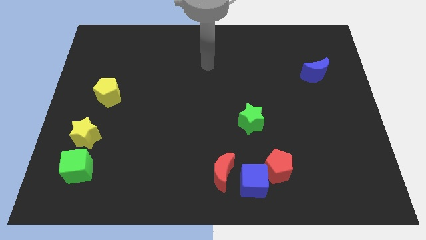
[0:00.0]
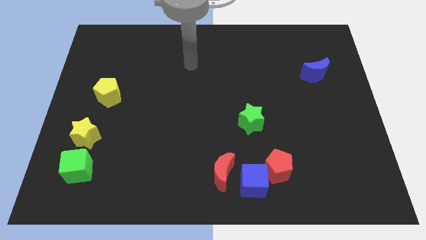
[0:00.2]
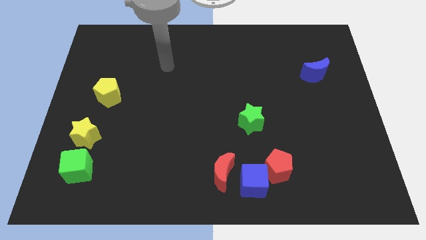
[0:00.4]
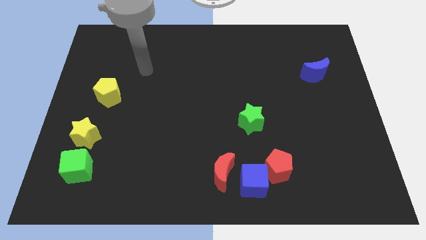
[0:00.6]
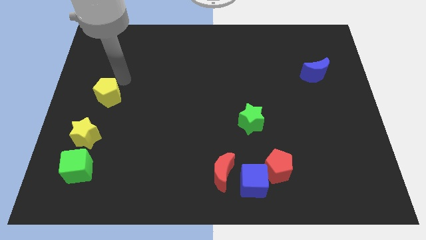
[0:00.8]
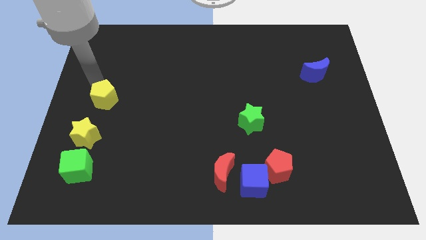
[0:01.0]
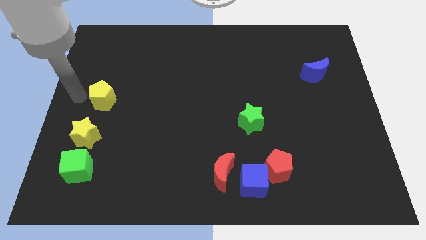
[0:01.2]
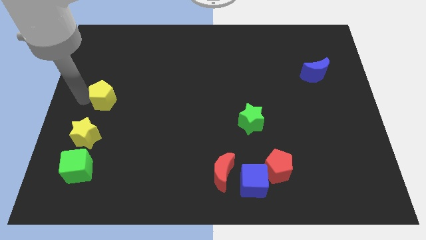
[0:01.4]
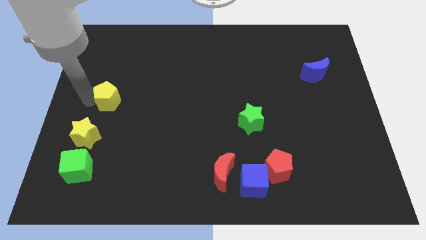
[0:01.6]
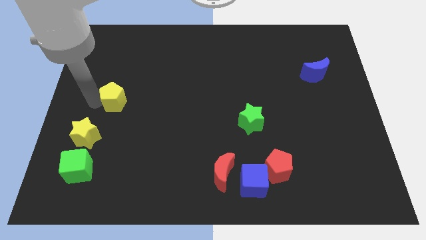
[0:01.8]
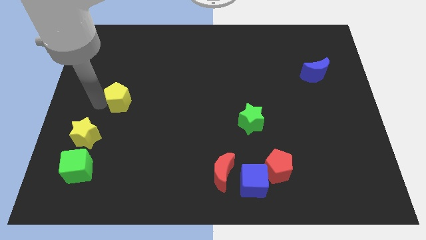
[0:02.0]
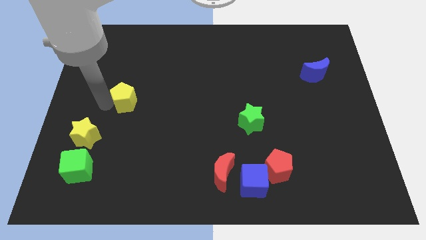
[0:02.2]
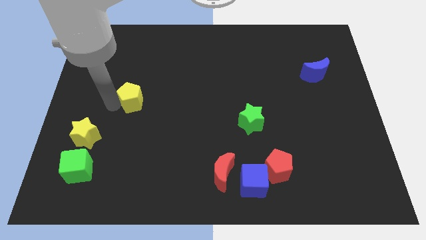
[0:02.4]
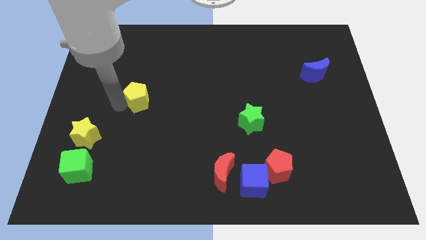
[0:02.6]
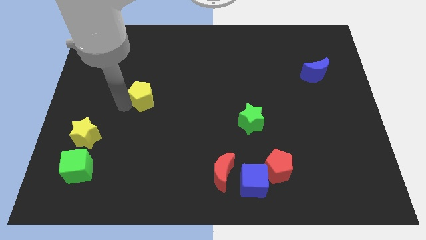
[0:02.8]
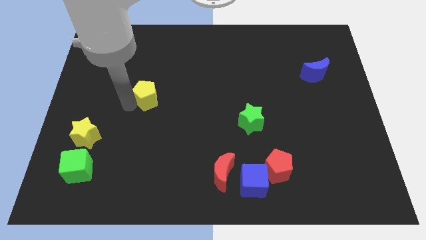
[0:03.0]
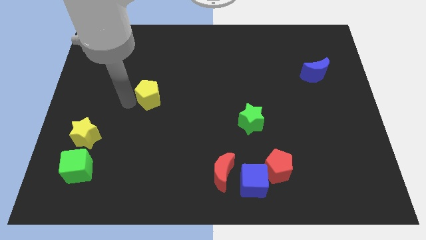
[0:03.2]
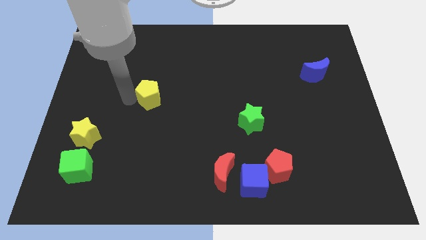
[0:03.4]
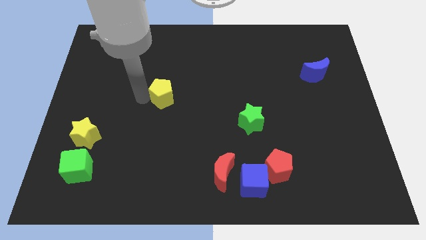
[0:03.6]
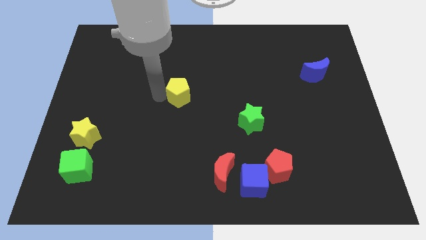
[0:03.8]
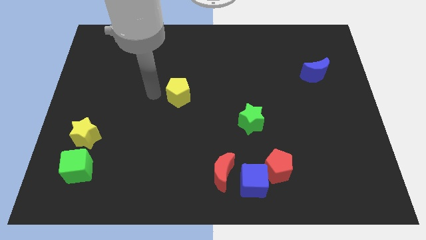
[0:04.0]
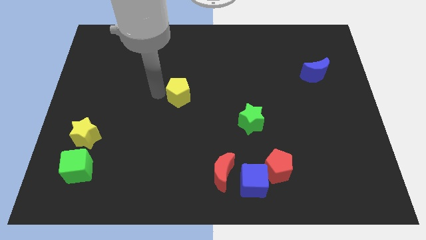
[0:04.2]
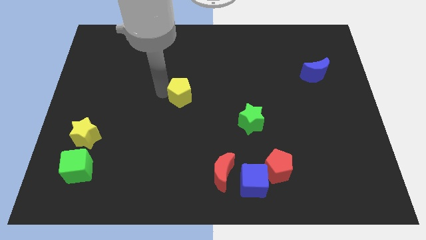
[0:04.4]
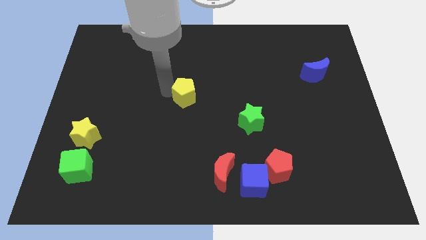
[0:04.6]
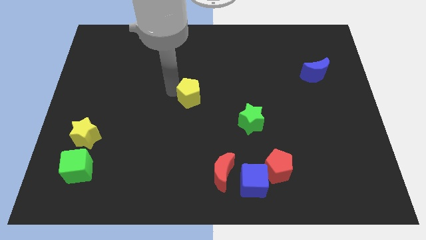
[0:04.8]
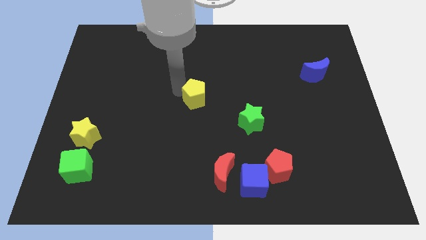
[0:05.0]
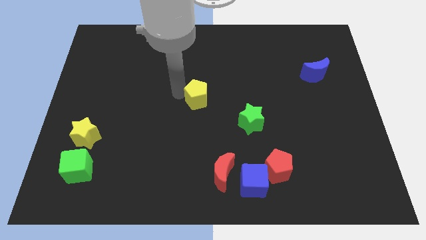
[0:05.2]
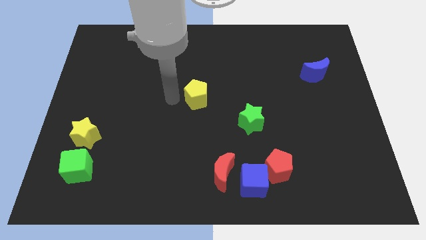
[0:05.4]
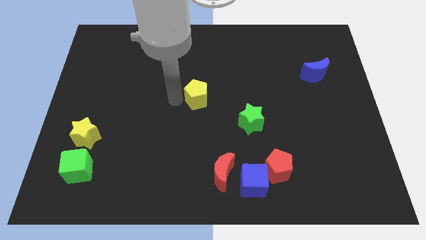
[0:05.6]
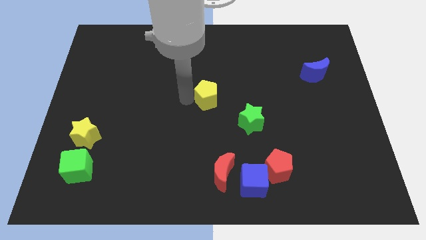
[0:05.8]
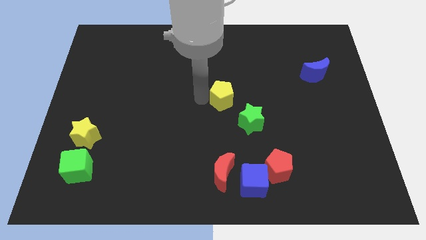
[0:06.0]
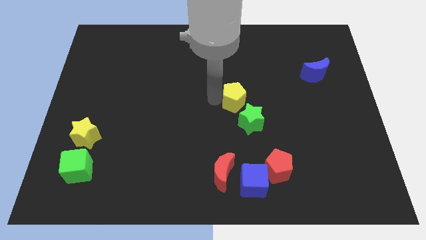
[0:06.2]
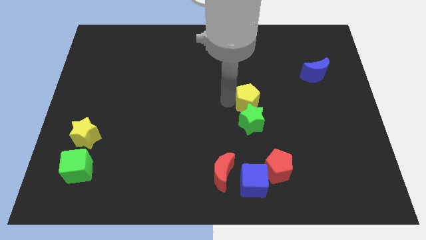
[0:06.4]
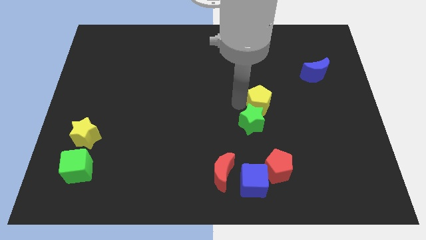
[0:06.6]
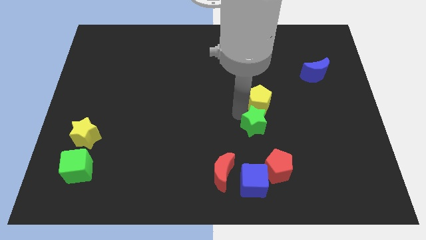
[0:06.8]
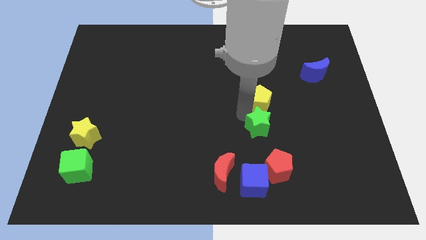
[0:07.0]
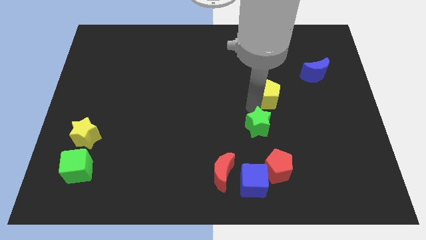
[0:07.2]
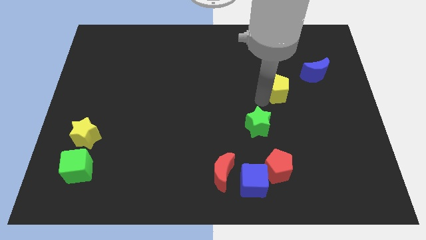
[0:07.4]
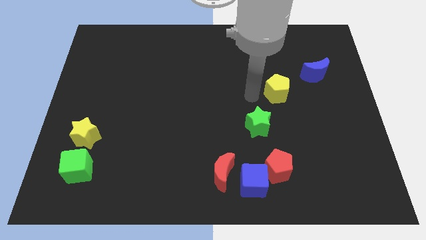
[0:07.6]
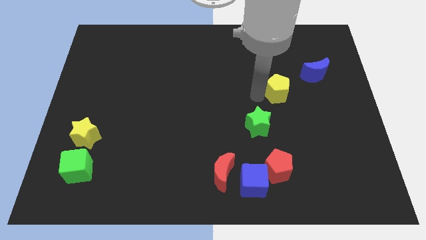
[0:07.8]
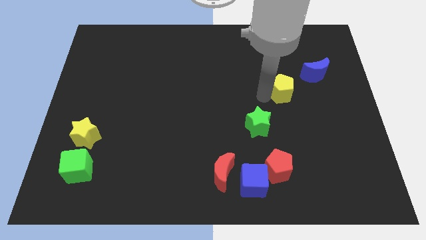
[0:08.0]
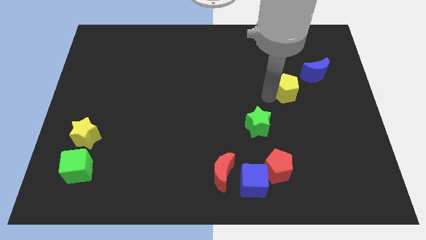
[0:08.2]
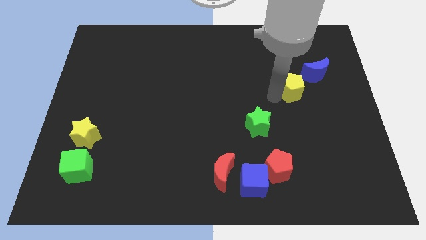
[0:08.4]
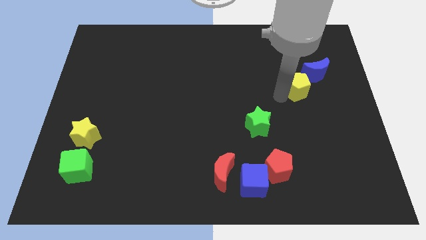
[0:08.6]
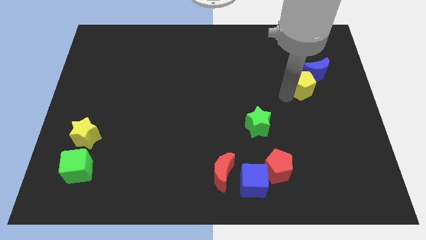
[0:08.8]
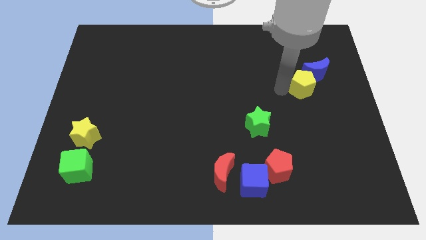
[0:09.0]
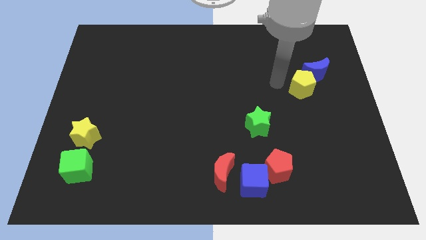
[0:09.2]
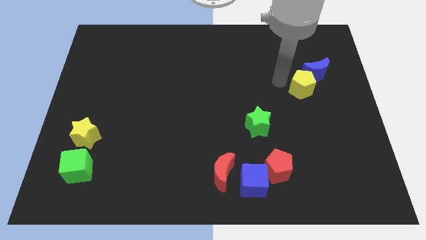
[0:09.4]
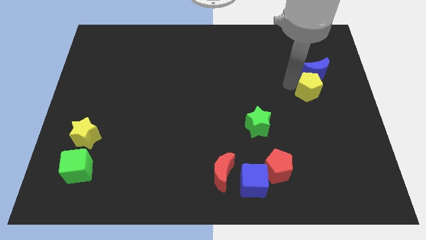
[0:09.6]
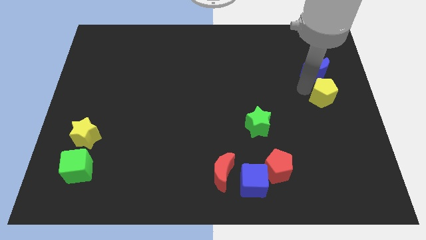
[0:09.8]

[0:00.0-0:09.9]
put the yellow pentagon to the center right

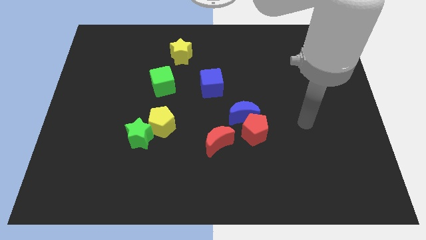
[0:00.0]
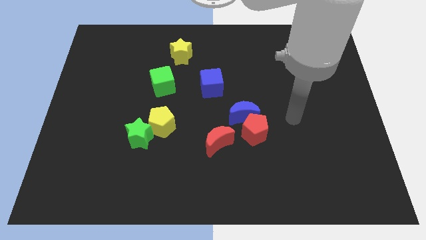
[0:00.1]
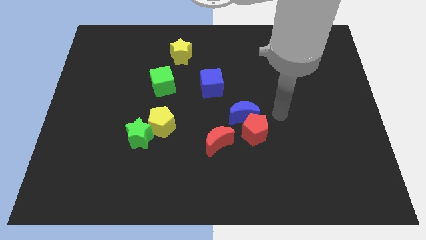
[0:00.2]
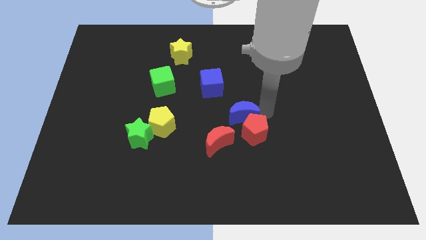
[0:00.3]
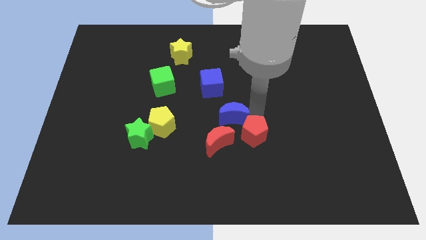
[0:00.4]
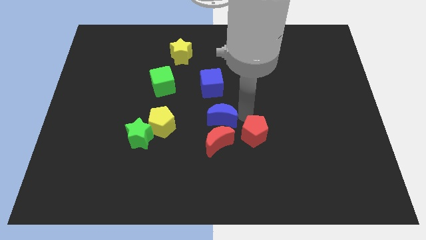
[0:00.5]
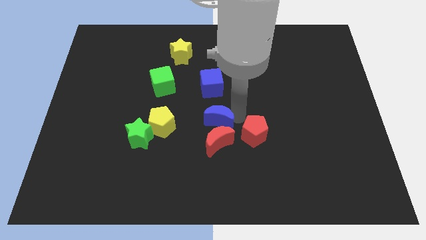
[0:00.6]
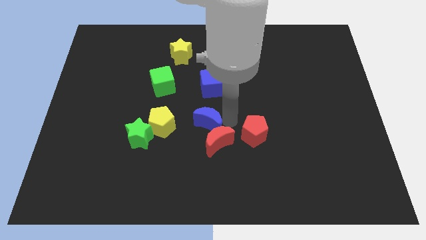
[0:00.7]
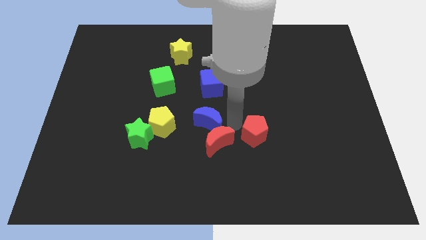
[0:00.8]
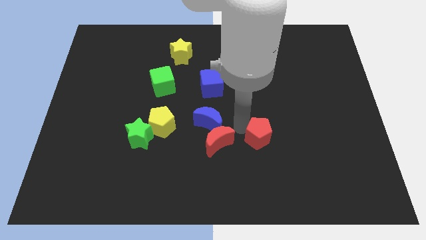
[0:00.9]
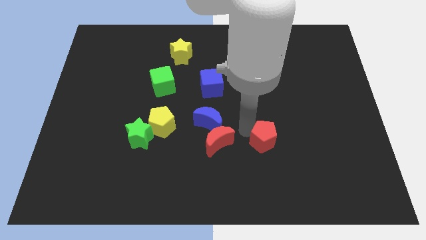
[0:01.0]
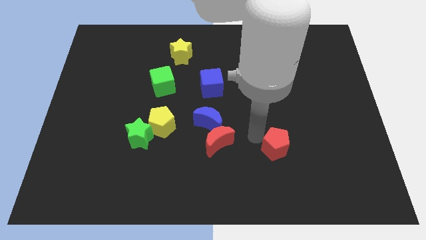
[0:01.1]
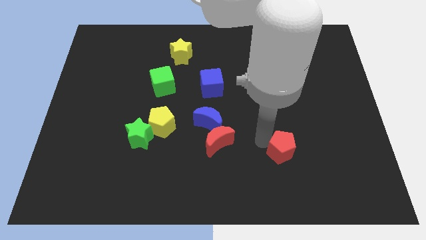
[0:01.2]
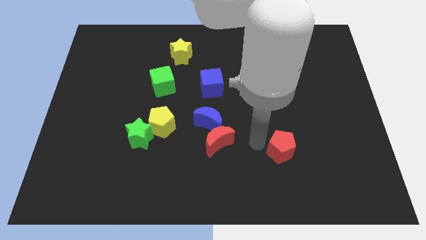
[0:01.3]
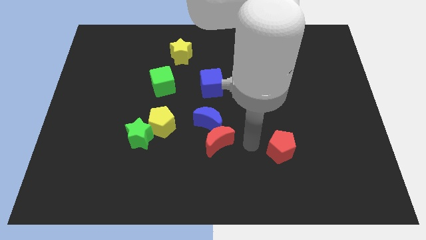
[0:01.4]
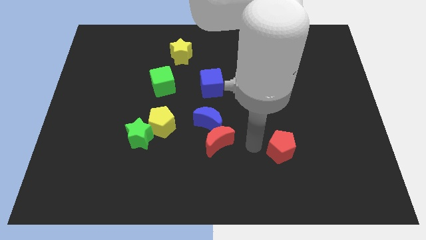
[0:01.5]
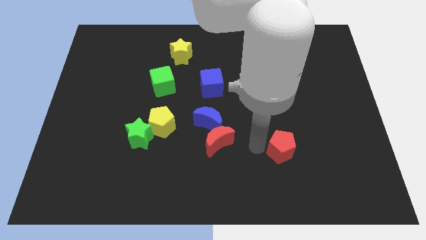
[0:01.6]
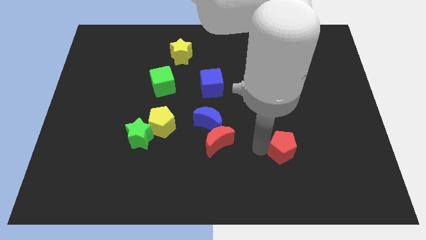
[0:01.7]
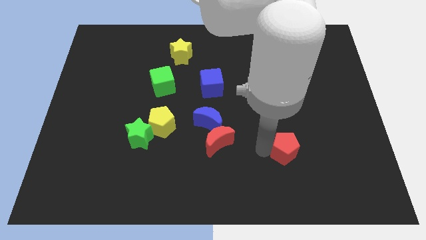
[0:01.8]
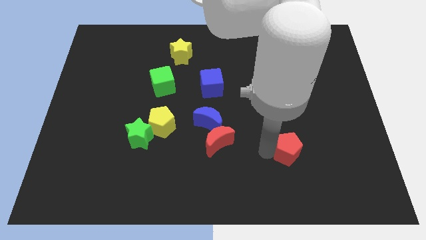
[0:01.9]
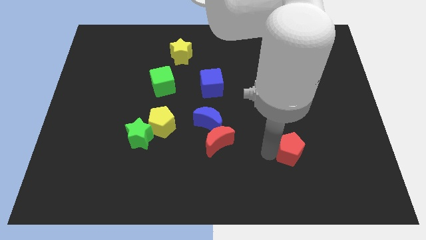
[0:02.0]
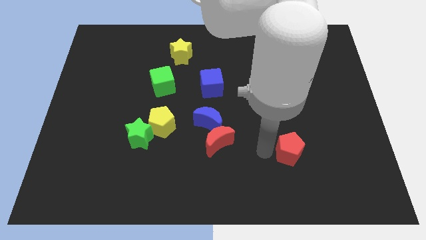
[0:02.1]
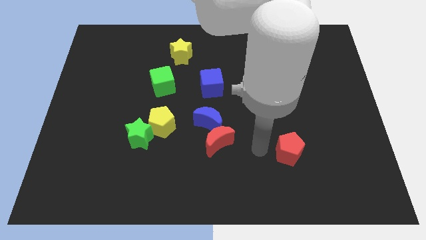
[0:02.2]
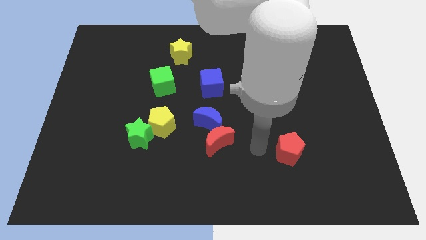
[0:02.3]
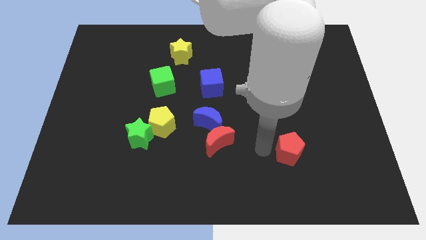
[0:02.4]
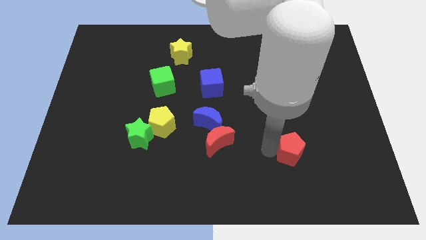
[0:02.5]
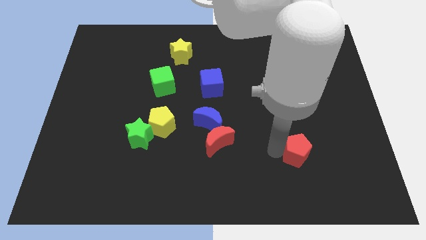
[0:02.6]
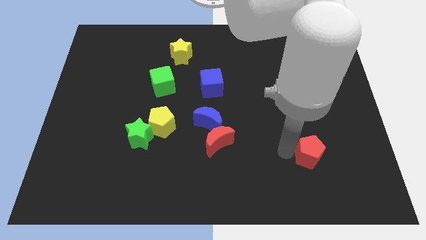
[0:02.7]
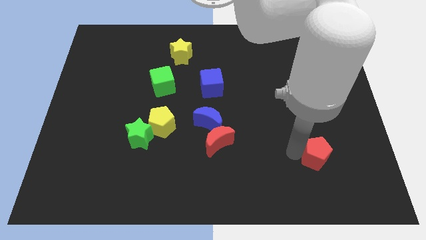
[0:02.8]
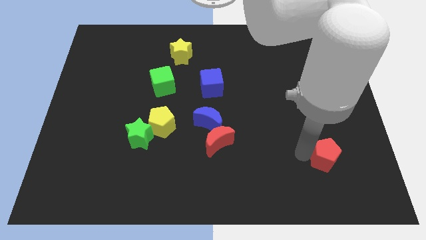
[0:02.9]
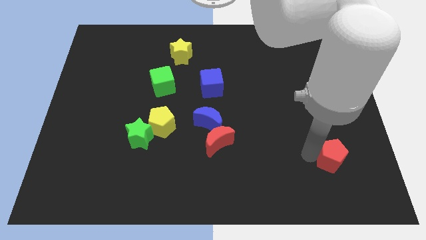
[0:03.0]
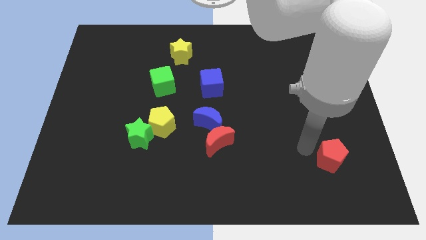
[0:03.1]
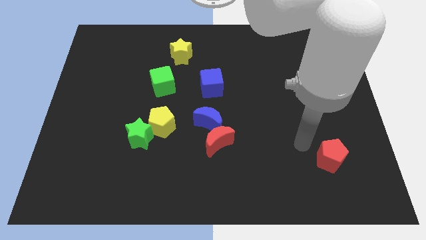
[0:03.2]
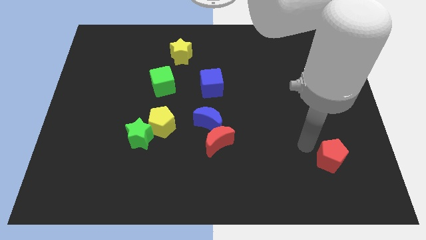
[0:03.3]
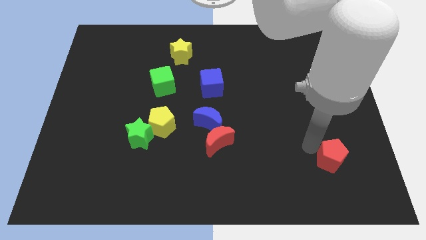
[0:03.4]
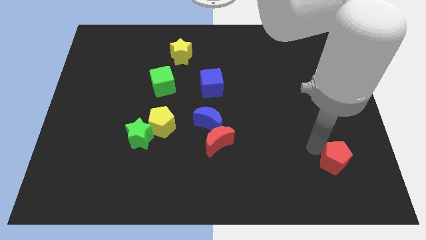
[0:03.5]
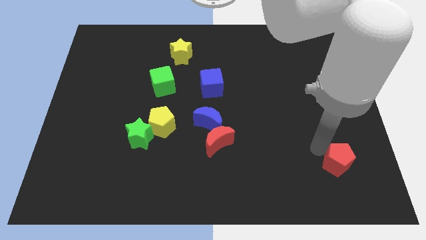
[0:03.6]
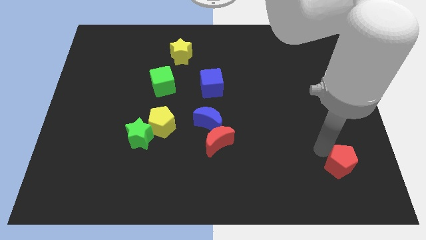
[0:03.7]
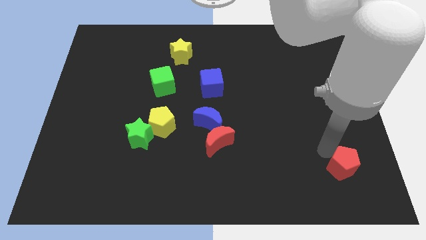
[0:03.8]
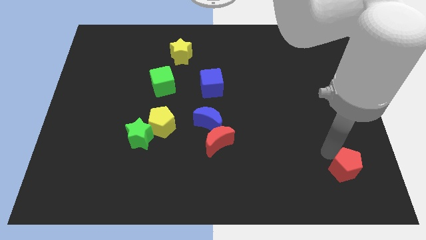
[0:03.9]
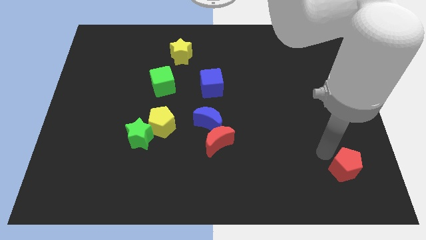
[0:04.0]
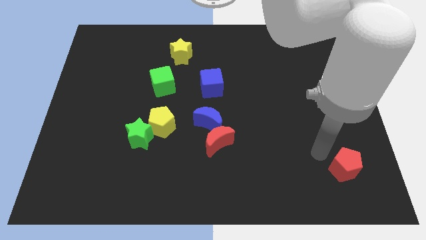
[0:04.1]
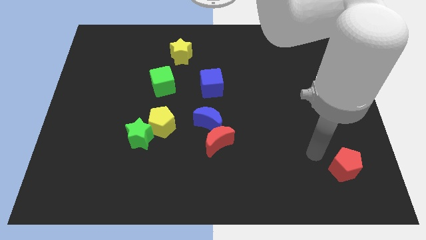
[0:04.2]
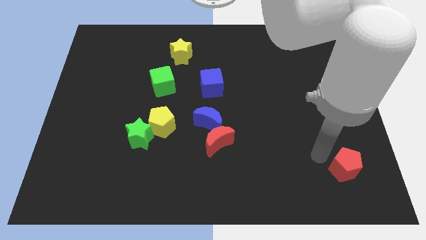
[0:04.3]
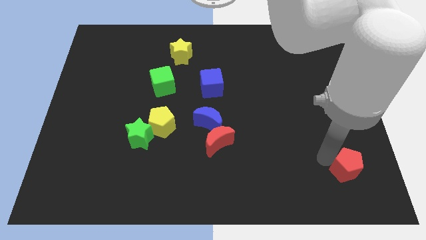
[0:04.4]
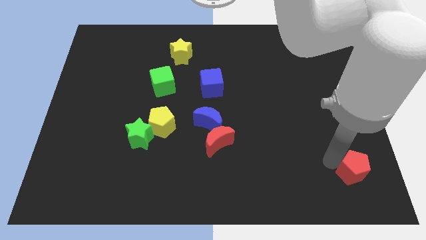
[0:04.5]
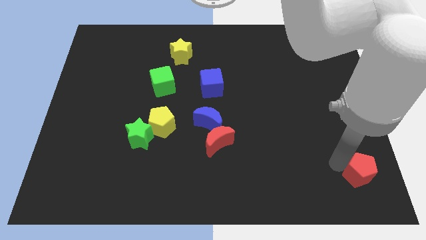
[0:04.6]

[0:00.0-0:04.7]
slide the red pentagon to the bottom right corner
